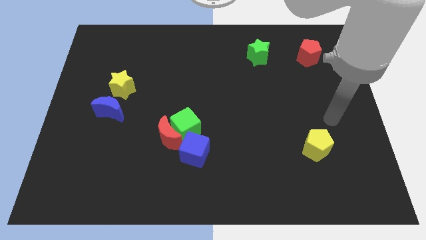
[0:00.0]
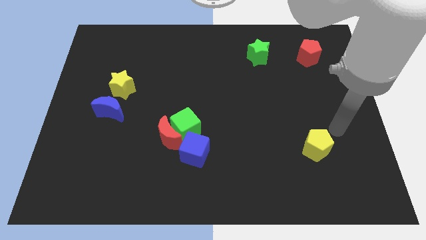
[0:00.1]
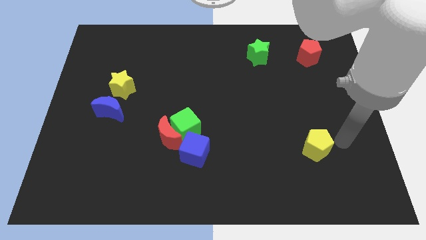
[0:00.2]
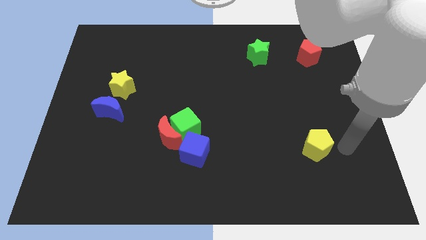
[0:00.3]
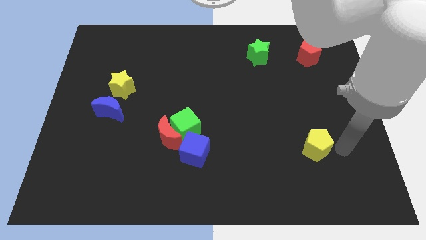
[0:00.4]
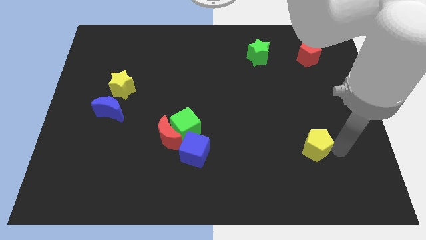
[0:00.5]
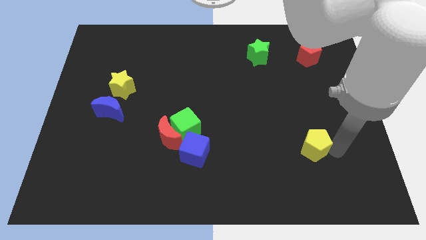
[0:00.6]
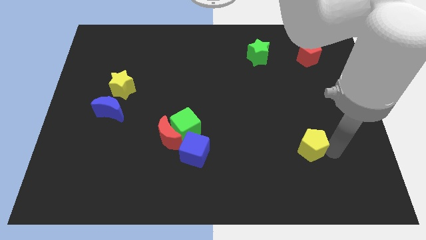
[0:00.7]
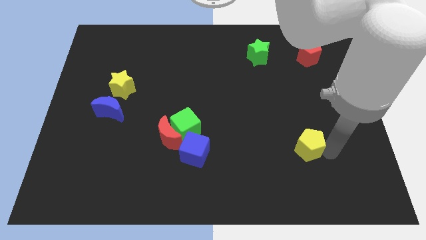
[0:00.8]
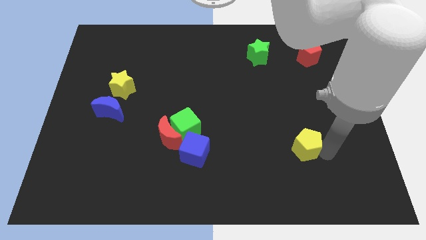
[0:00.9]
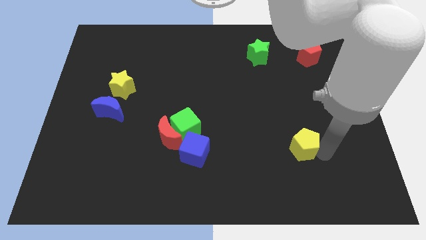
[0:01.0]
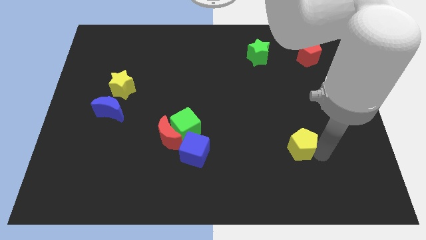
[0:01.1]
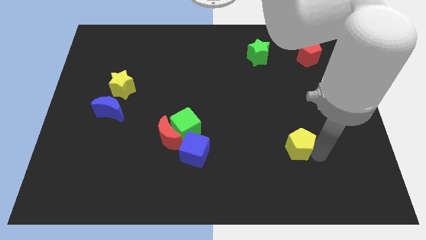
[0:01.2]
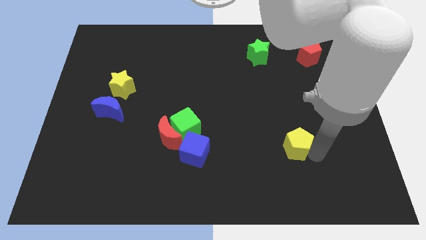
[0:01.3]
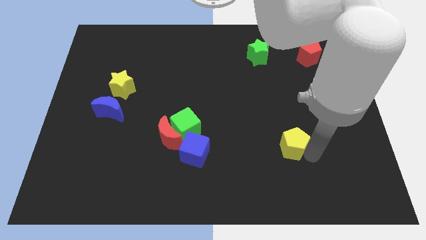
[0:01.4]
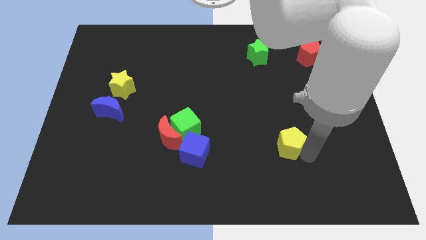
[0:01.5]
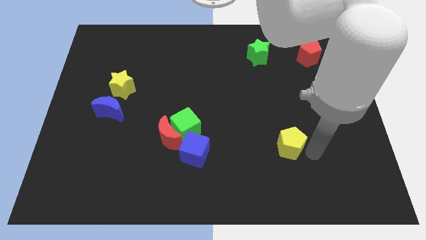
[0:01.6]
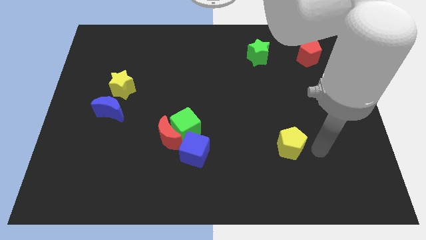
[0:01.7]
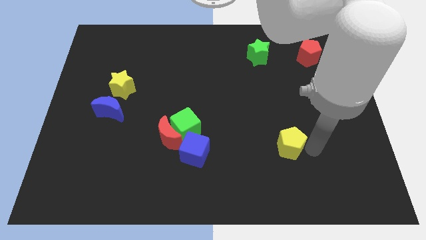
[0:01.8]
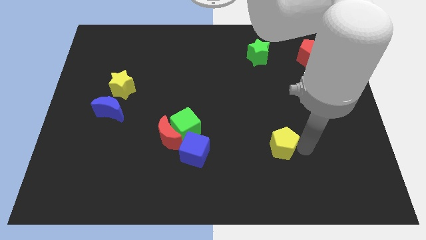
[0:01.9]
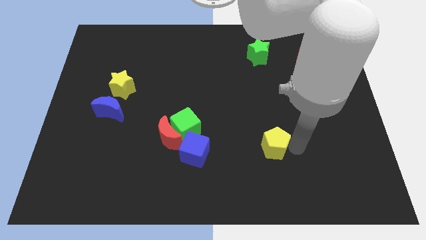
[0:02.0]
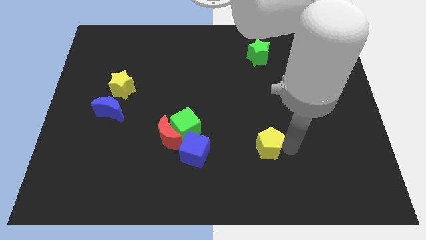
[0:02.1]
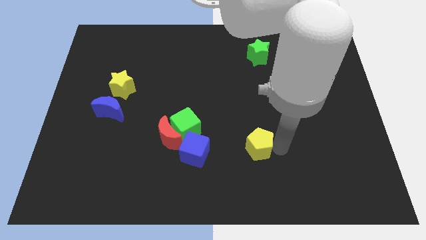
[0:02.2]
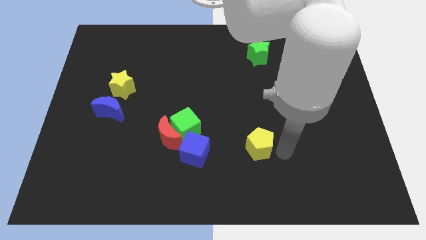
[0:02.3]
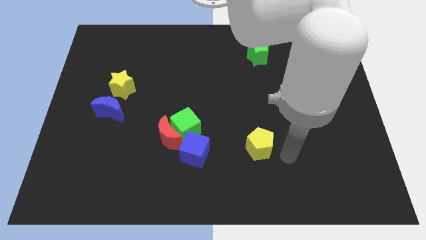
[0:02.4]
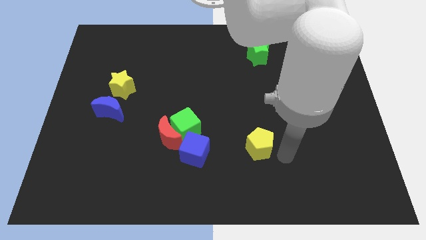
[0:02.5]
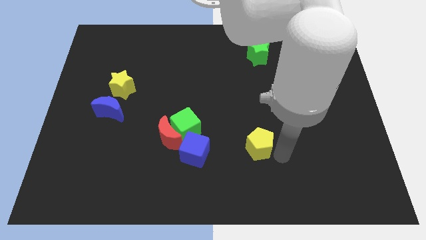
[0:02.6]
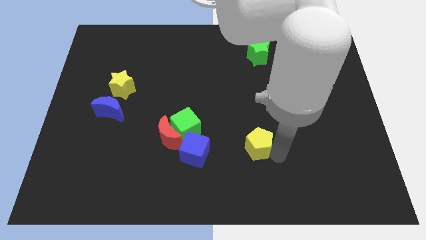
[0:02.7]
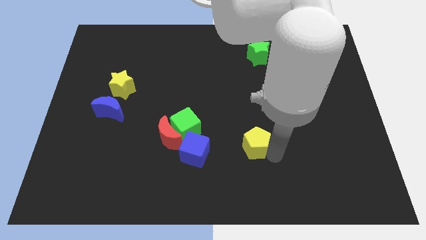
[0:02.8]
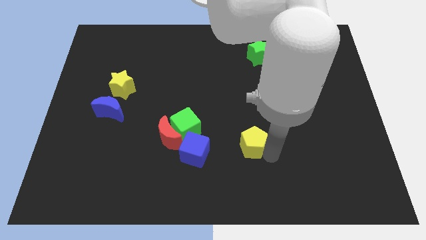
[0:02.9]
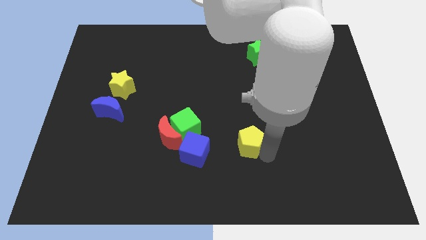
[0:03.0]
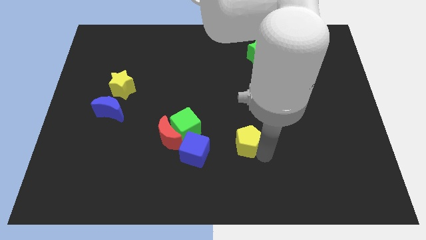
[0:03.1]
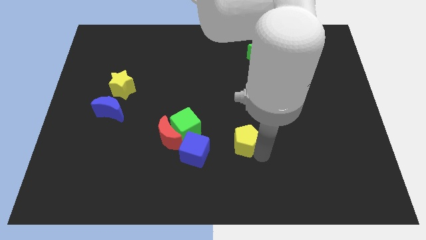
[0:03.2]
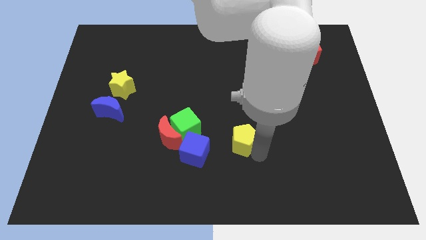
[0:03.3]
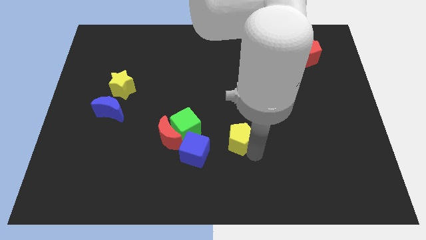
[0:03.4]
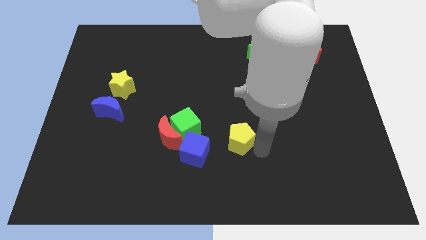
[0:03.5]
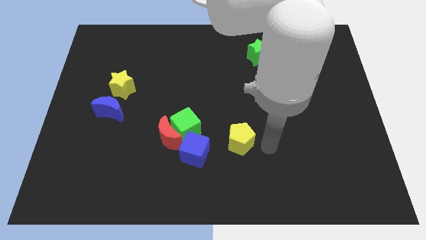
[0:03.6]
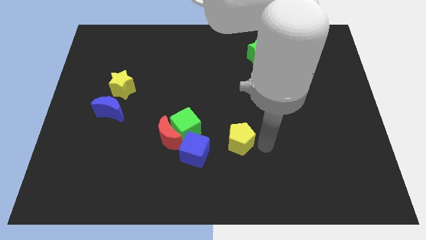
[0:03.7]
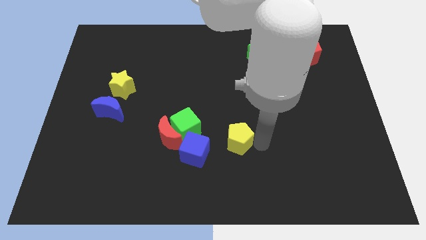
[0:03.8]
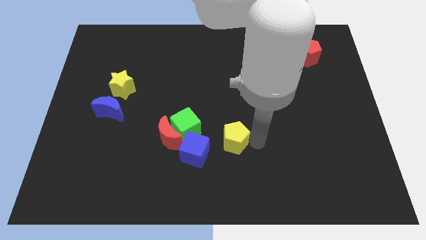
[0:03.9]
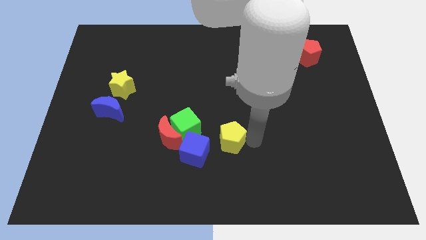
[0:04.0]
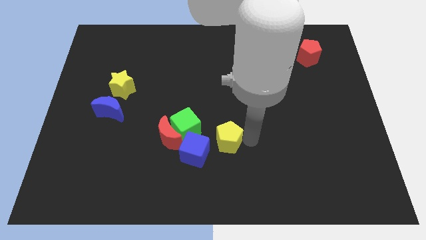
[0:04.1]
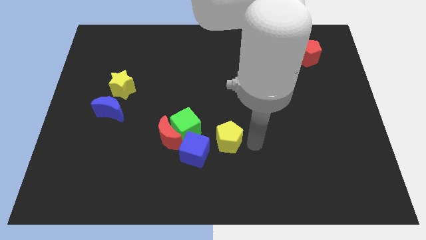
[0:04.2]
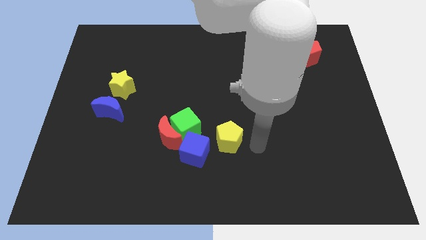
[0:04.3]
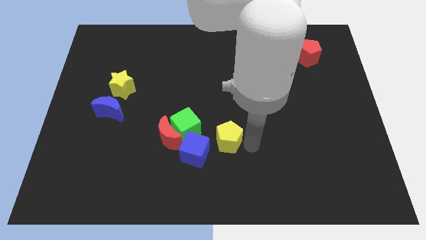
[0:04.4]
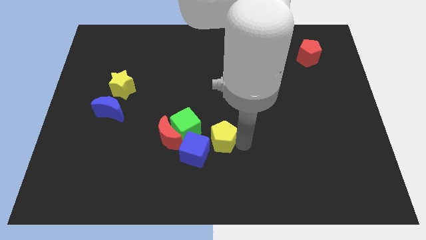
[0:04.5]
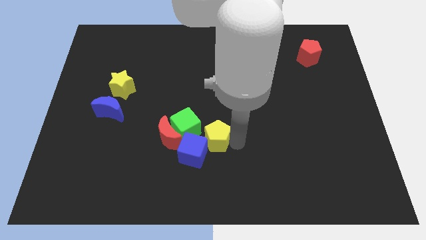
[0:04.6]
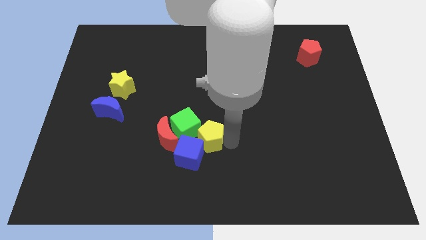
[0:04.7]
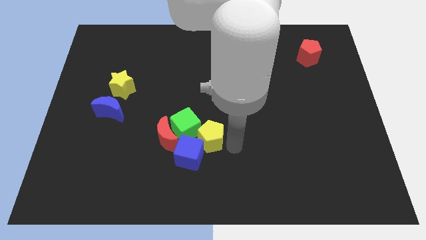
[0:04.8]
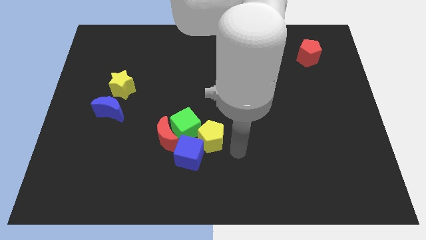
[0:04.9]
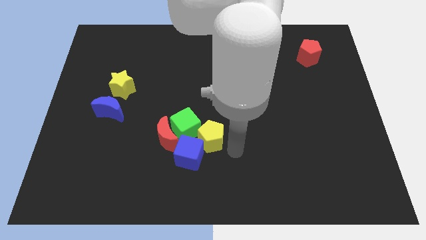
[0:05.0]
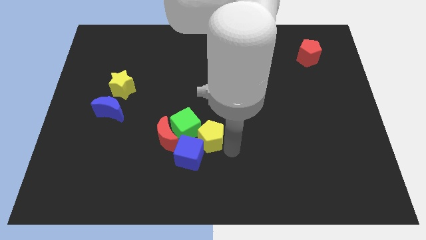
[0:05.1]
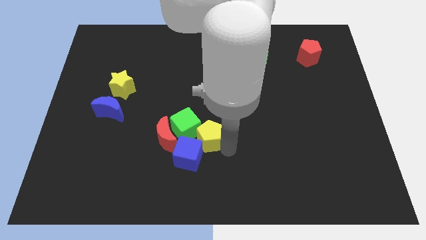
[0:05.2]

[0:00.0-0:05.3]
push the yellow pentagon close to the green cube

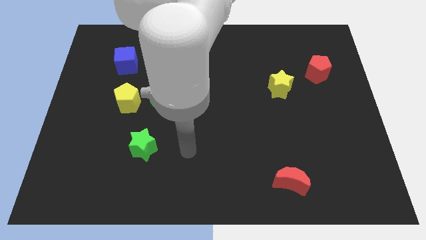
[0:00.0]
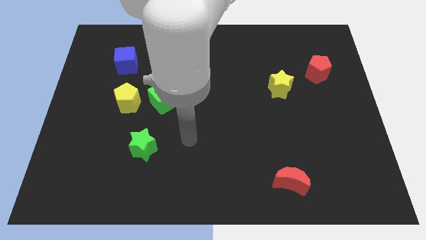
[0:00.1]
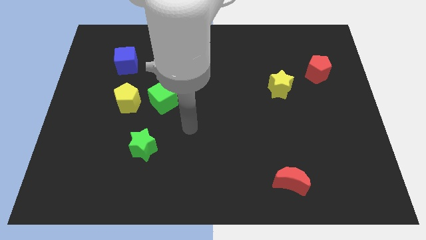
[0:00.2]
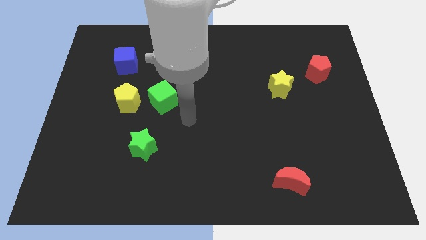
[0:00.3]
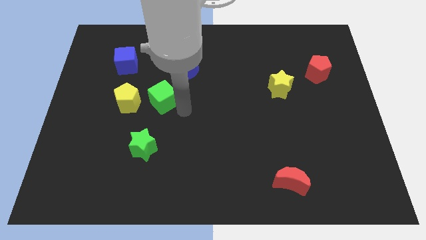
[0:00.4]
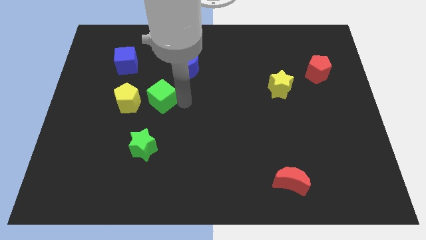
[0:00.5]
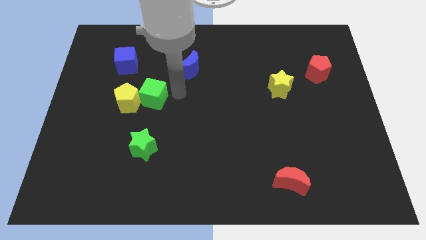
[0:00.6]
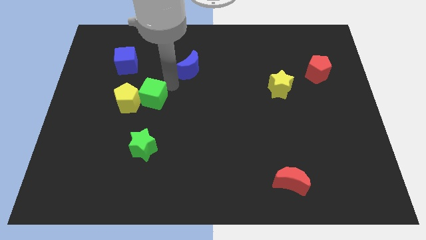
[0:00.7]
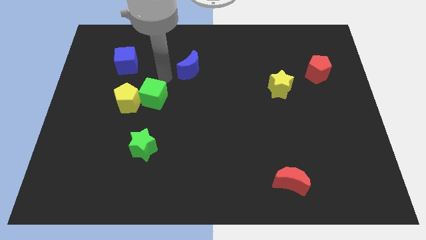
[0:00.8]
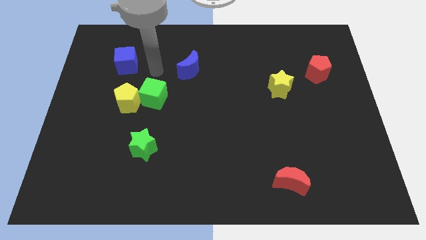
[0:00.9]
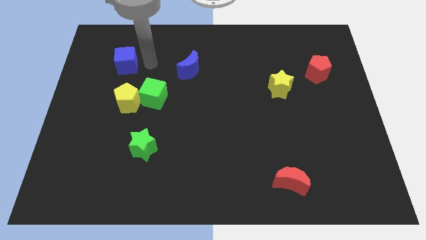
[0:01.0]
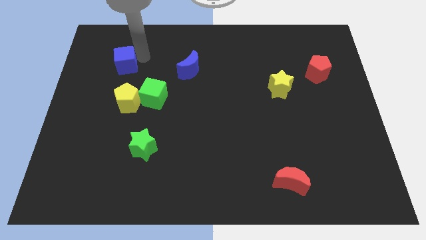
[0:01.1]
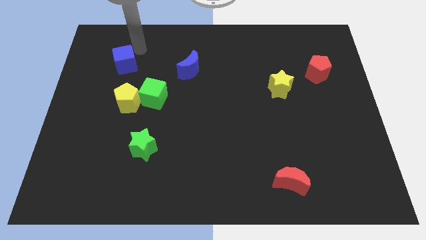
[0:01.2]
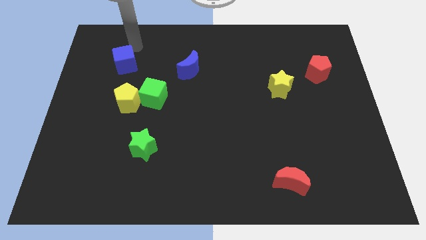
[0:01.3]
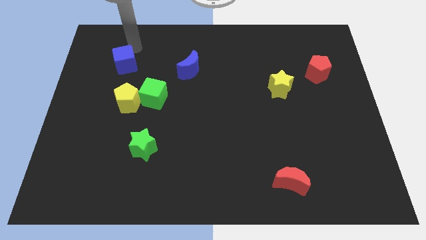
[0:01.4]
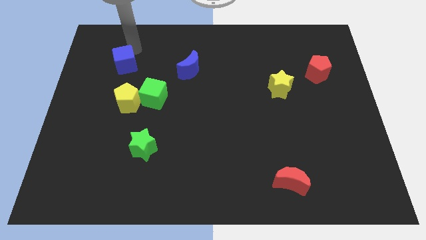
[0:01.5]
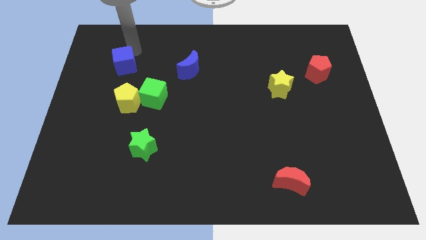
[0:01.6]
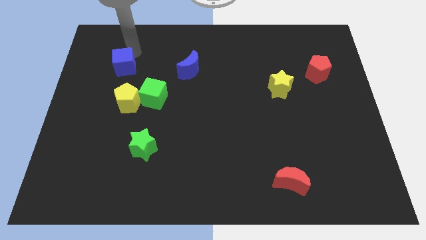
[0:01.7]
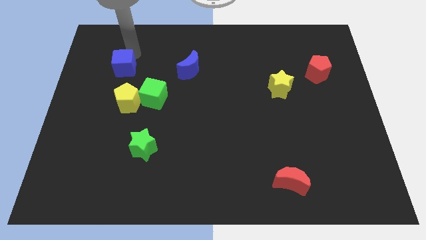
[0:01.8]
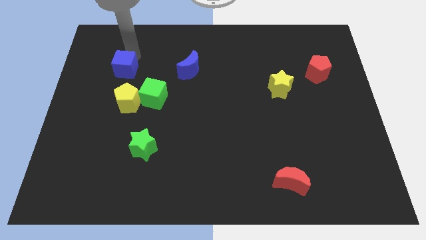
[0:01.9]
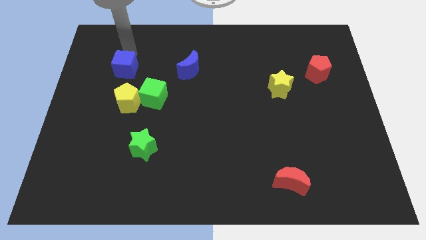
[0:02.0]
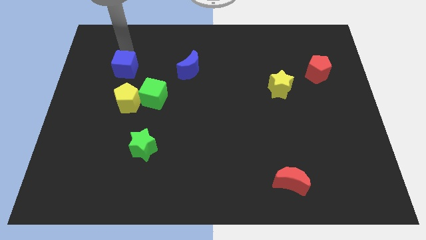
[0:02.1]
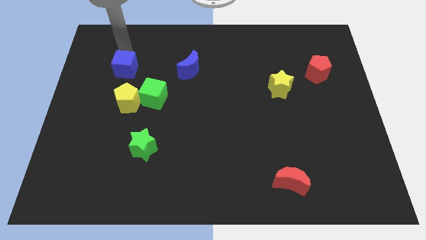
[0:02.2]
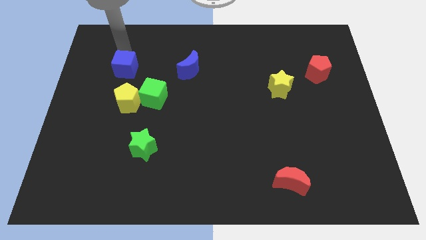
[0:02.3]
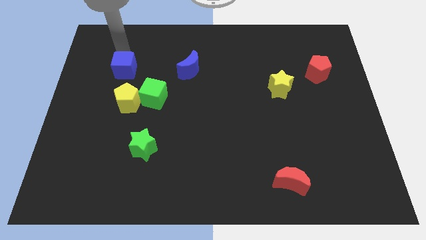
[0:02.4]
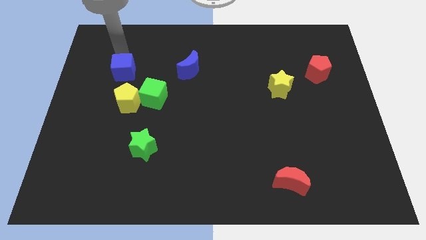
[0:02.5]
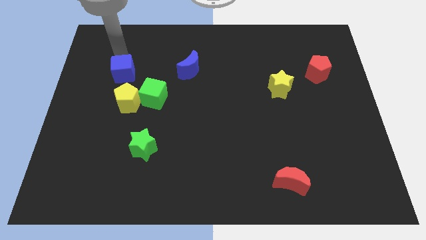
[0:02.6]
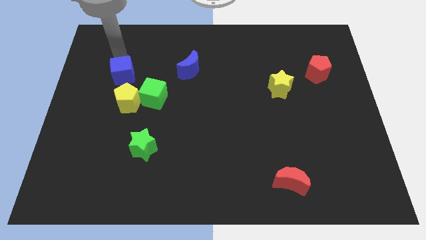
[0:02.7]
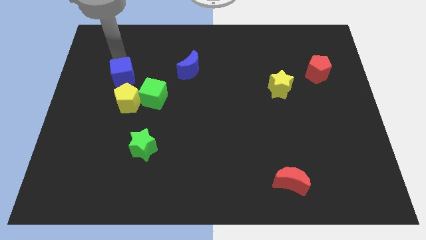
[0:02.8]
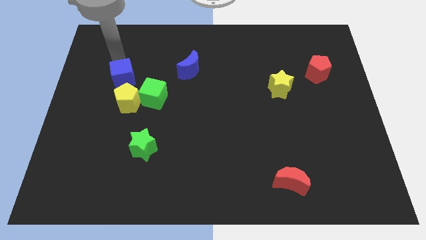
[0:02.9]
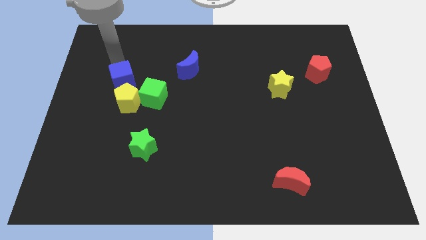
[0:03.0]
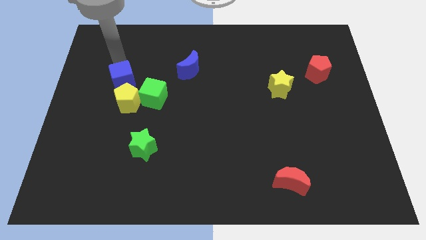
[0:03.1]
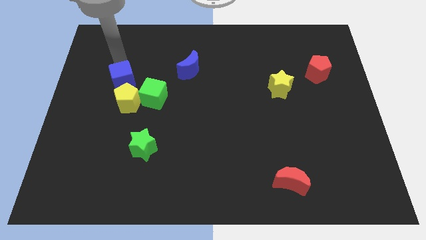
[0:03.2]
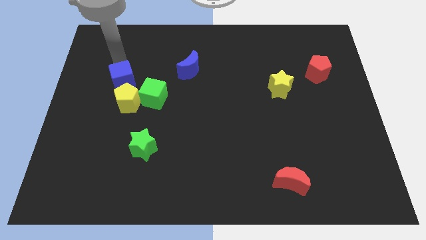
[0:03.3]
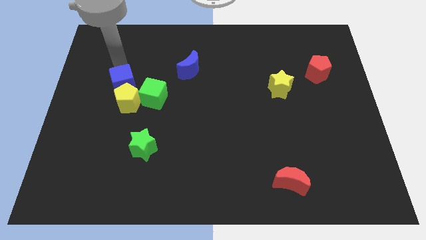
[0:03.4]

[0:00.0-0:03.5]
push the blue cube close to the yellow pentagon
